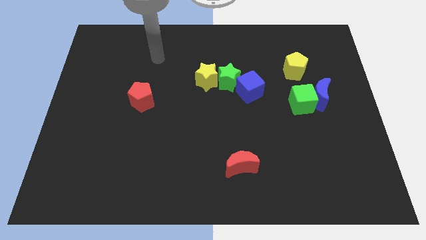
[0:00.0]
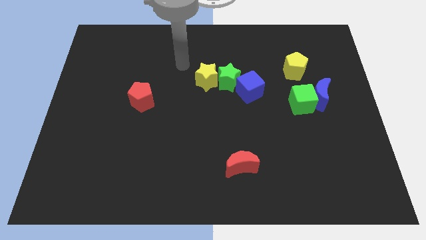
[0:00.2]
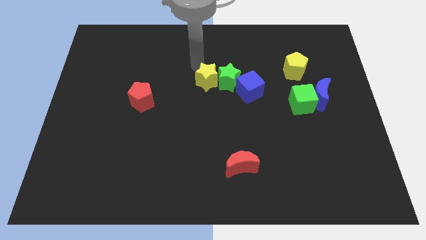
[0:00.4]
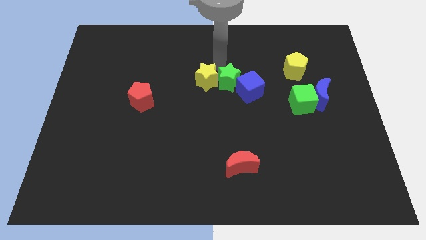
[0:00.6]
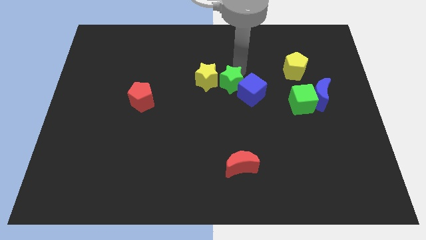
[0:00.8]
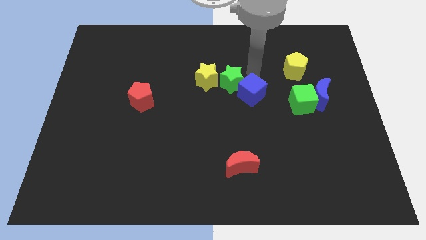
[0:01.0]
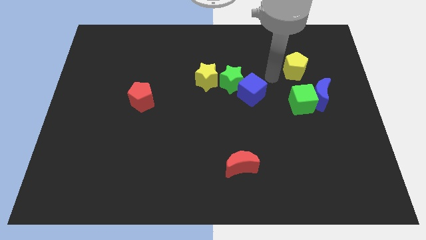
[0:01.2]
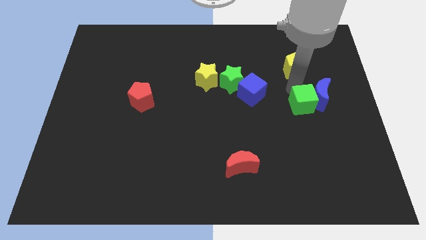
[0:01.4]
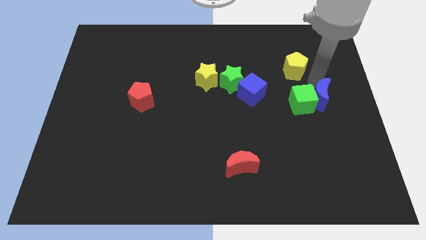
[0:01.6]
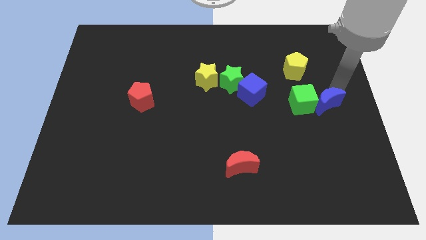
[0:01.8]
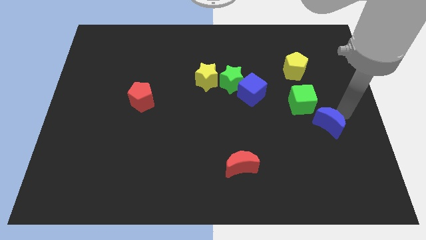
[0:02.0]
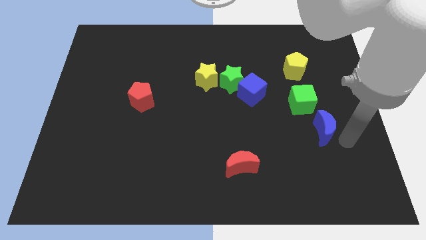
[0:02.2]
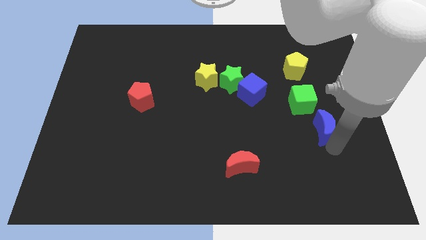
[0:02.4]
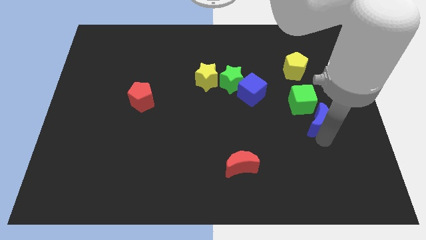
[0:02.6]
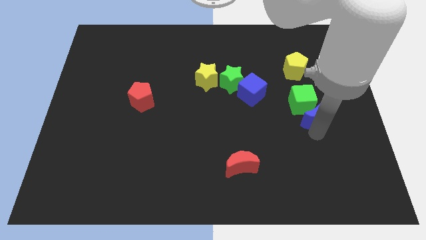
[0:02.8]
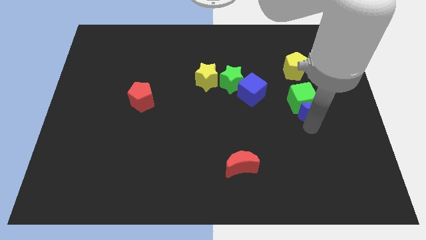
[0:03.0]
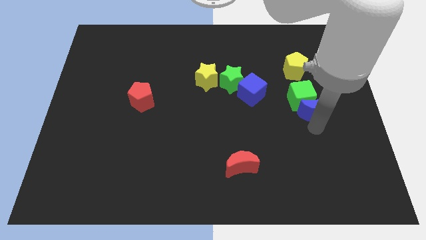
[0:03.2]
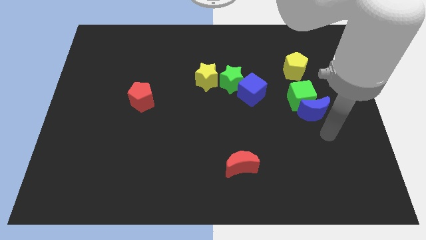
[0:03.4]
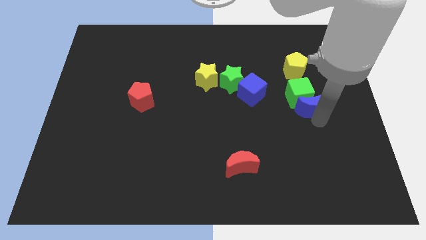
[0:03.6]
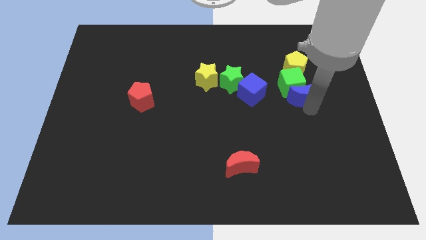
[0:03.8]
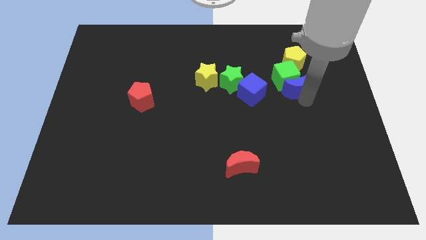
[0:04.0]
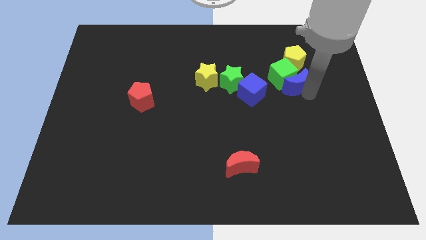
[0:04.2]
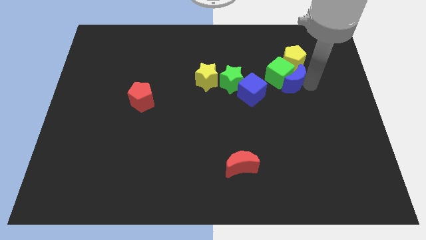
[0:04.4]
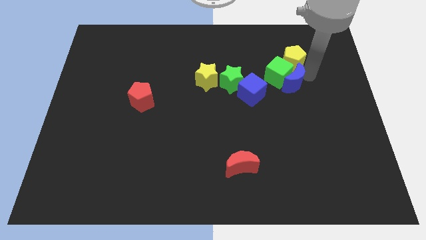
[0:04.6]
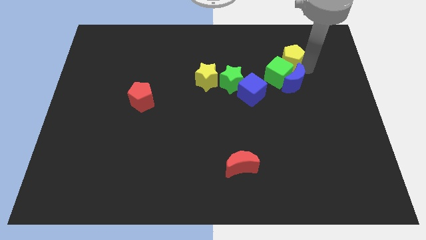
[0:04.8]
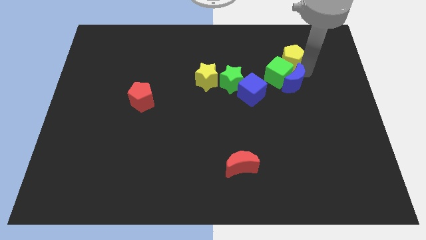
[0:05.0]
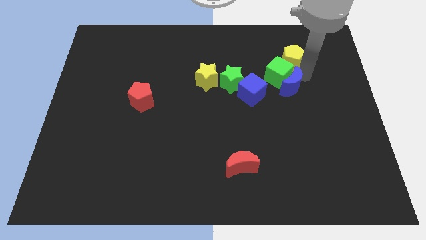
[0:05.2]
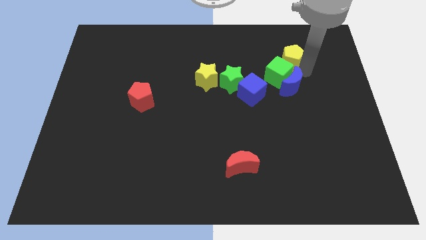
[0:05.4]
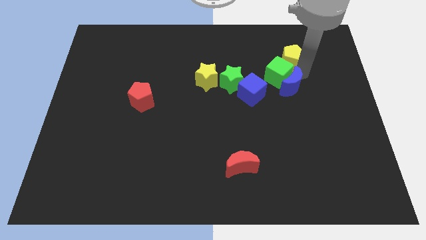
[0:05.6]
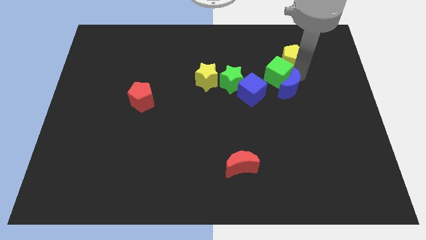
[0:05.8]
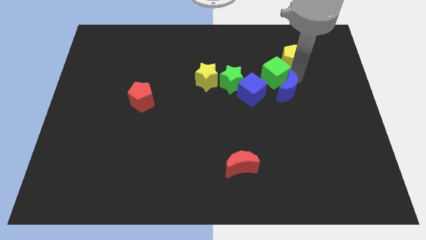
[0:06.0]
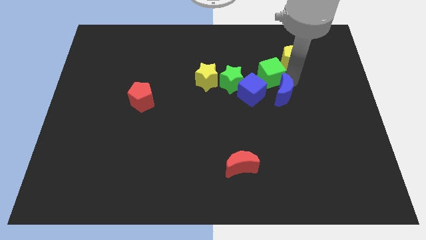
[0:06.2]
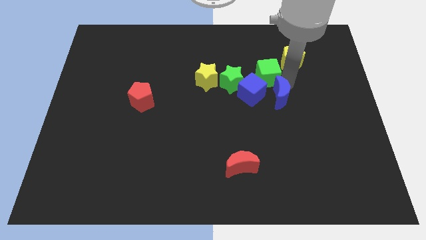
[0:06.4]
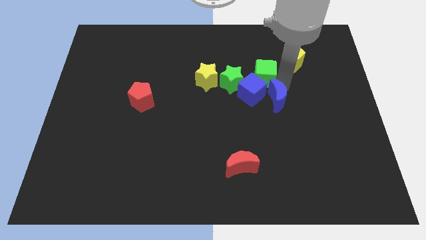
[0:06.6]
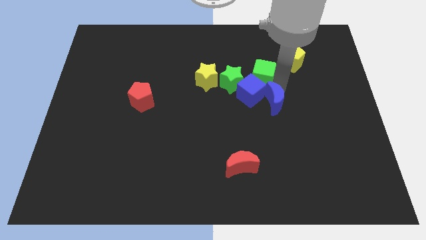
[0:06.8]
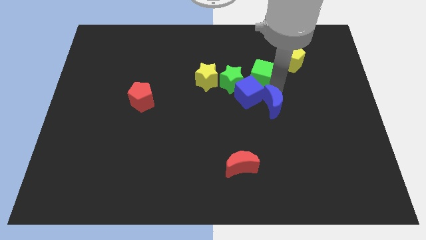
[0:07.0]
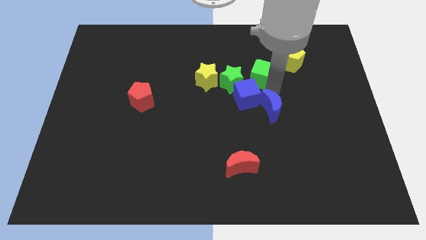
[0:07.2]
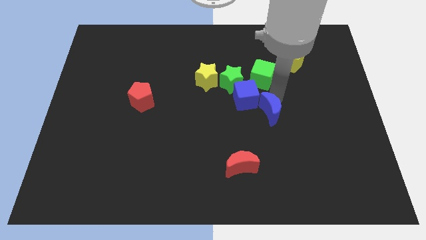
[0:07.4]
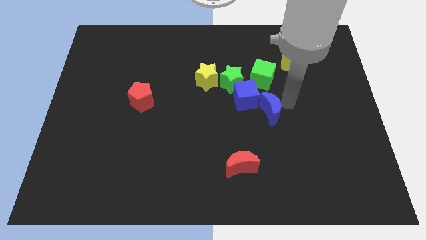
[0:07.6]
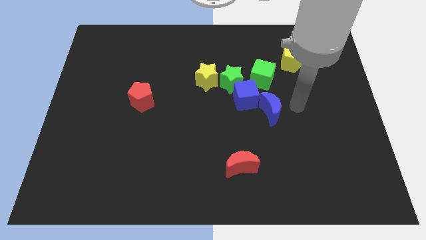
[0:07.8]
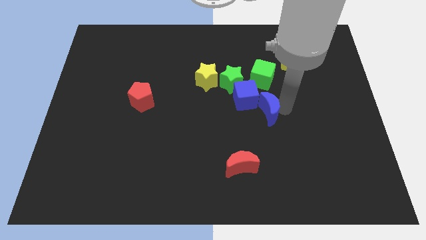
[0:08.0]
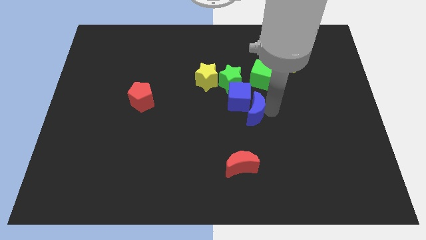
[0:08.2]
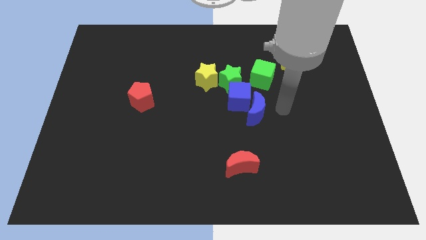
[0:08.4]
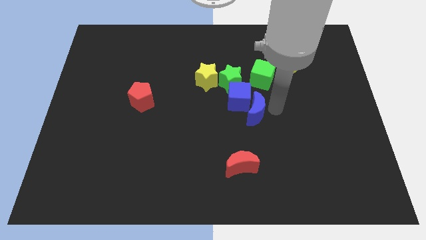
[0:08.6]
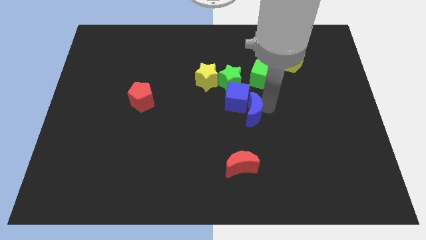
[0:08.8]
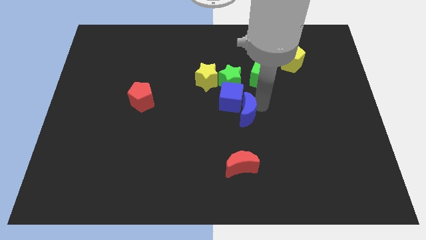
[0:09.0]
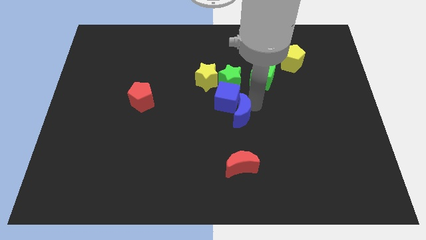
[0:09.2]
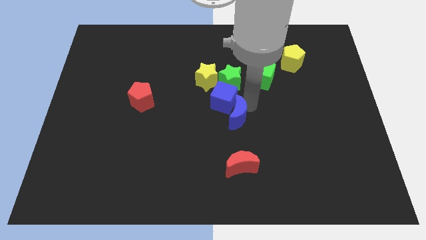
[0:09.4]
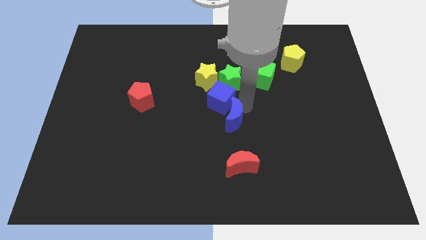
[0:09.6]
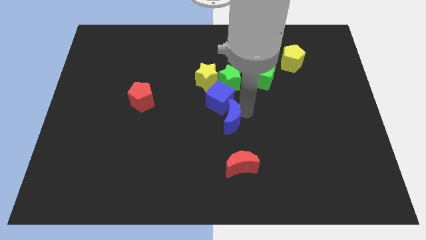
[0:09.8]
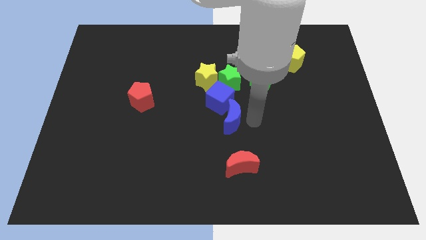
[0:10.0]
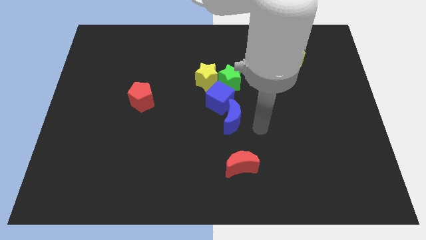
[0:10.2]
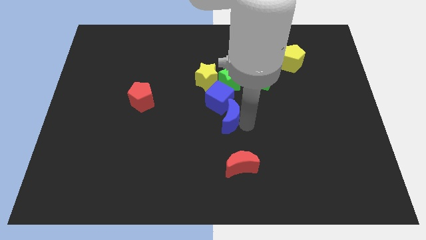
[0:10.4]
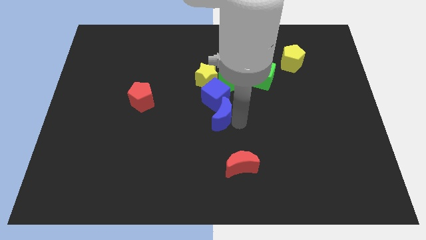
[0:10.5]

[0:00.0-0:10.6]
move the blue moon to the bottom side of the yellow star

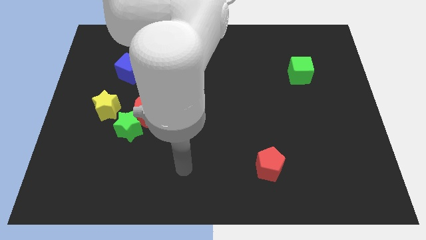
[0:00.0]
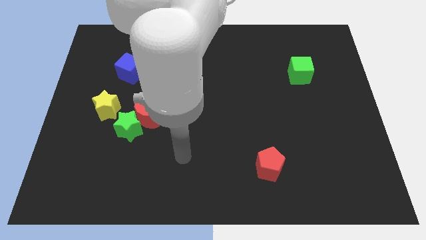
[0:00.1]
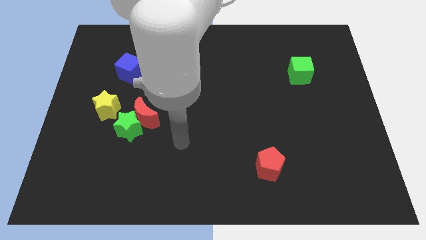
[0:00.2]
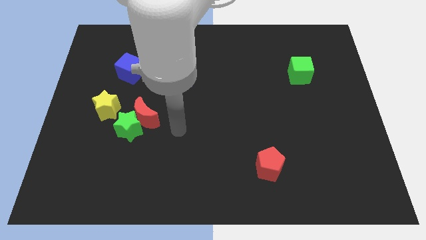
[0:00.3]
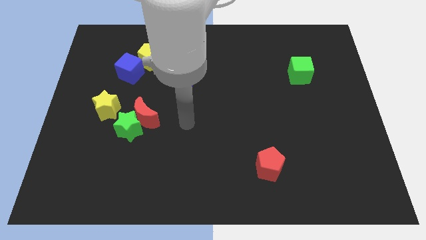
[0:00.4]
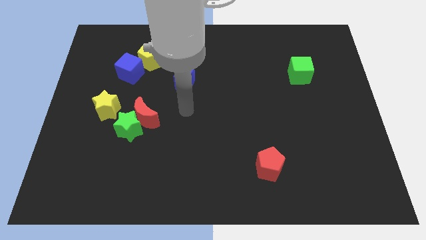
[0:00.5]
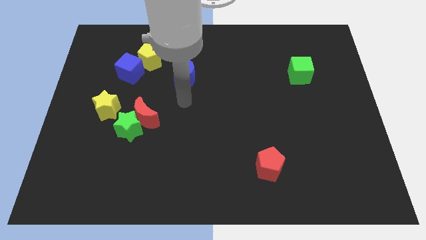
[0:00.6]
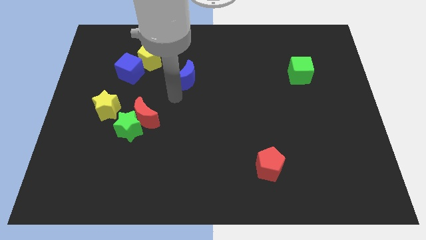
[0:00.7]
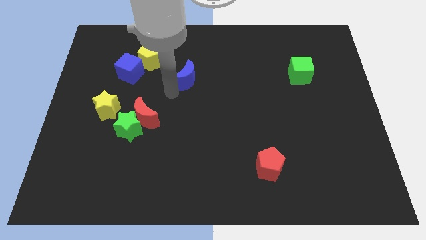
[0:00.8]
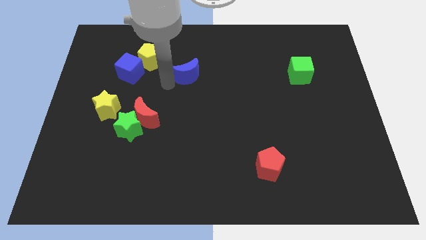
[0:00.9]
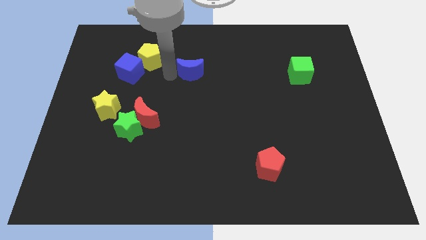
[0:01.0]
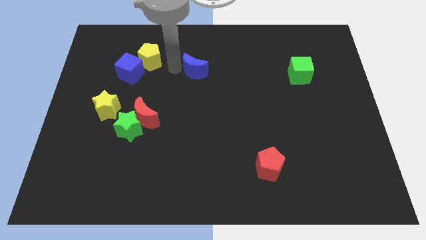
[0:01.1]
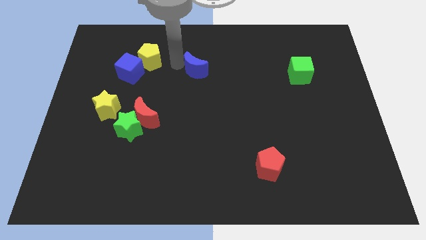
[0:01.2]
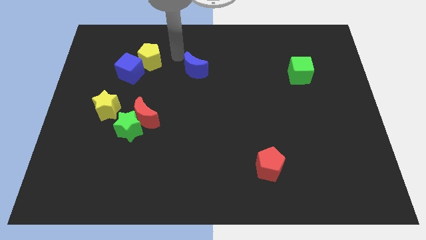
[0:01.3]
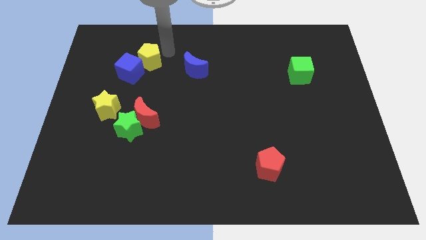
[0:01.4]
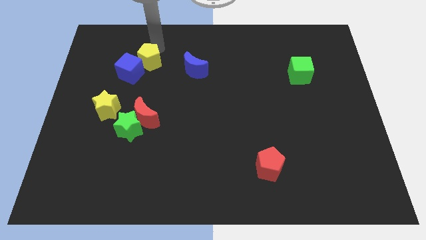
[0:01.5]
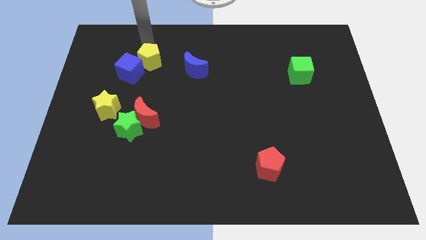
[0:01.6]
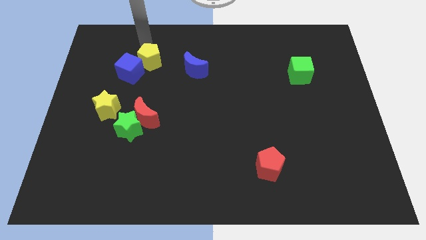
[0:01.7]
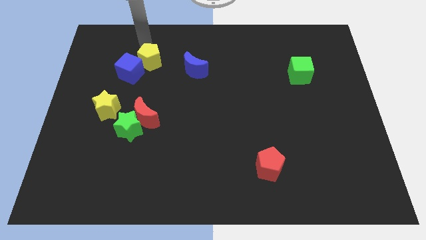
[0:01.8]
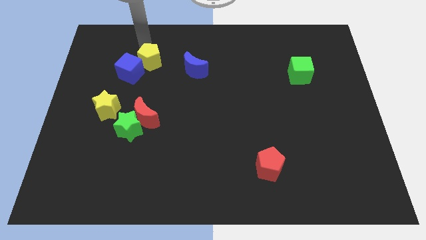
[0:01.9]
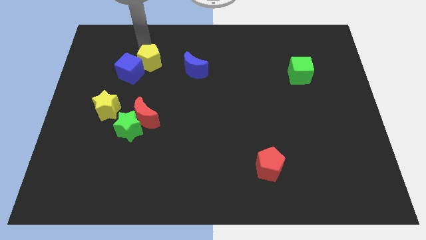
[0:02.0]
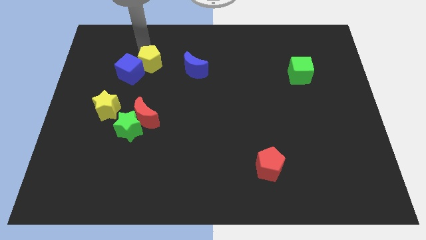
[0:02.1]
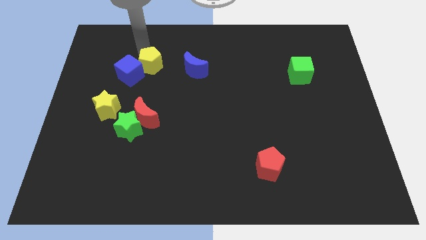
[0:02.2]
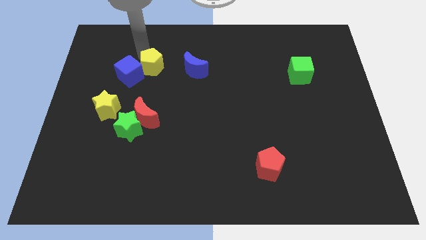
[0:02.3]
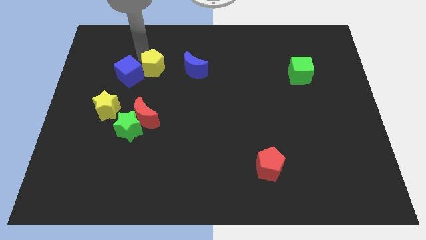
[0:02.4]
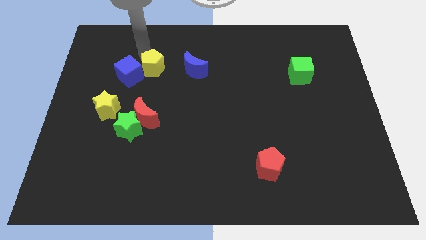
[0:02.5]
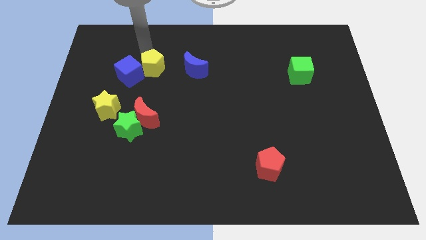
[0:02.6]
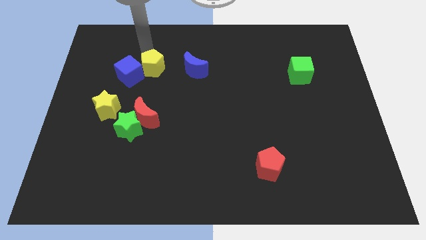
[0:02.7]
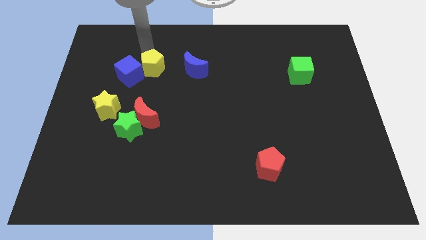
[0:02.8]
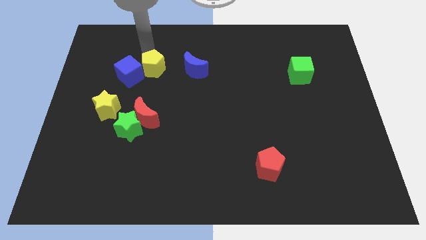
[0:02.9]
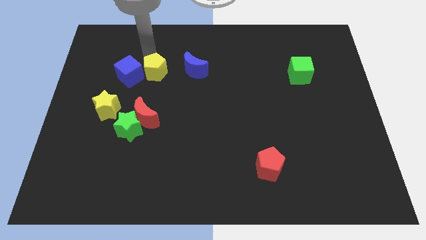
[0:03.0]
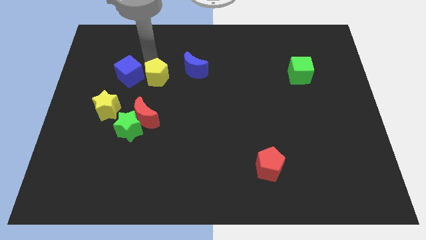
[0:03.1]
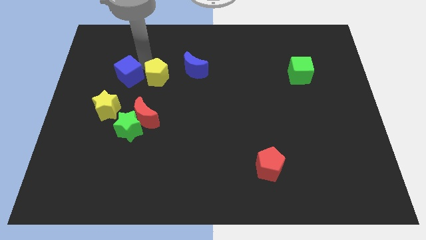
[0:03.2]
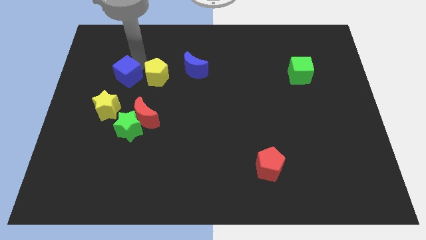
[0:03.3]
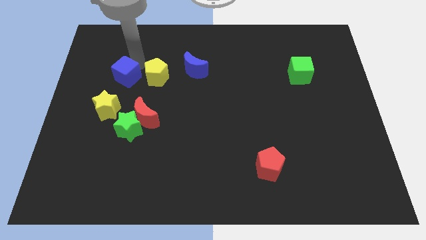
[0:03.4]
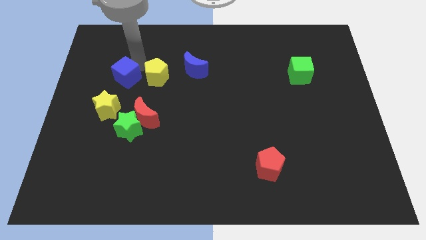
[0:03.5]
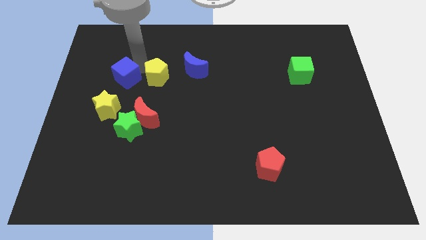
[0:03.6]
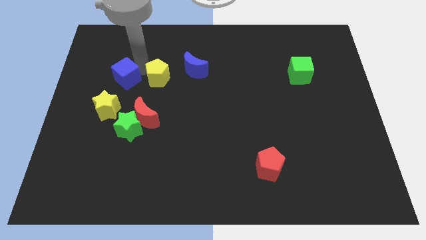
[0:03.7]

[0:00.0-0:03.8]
push the yellow pentagon to the bottom left side of the blue moon
